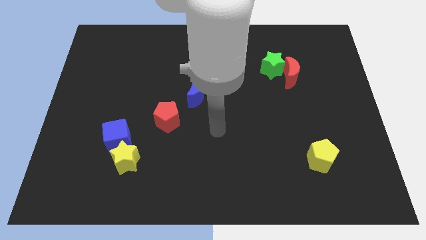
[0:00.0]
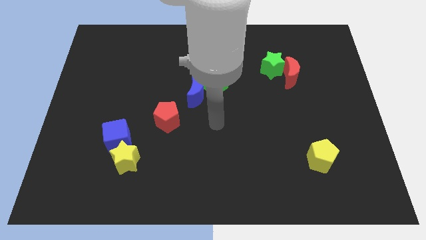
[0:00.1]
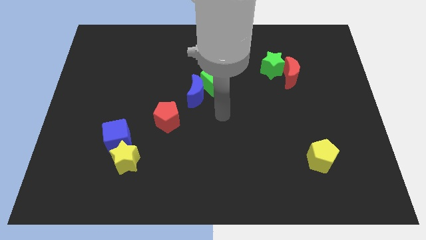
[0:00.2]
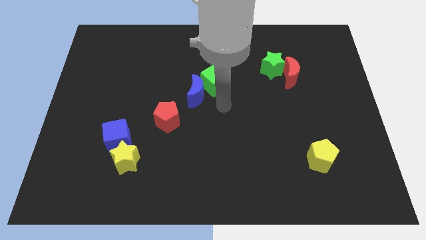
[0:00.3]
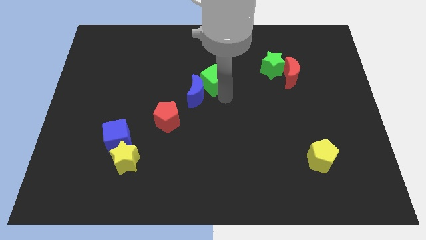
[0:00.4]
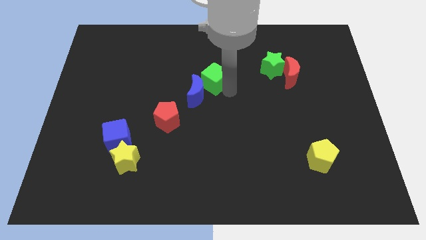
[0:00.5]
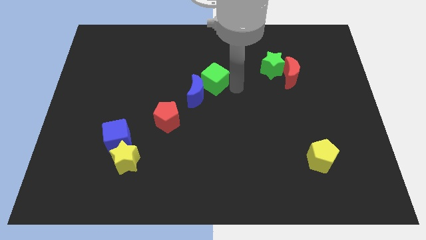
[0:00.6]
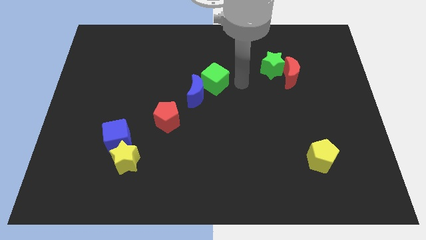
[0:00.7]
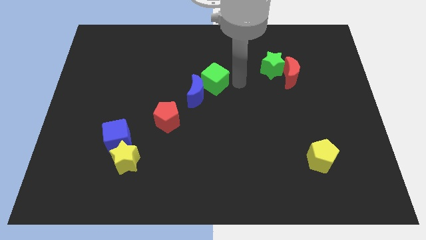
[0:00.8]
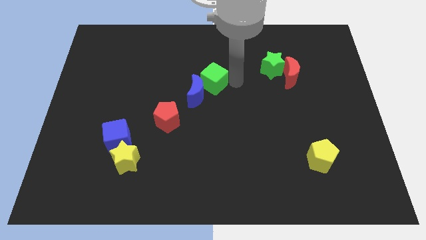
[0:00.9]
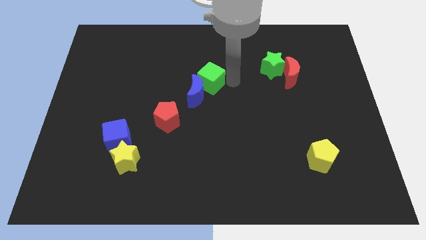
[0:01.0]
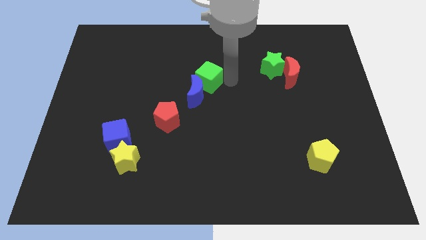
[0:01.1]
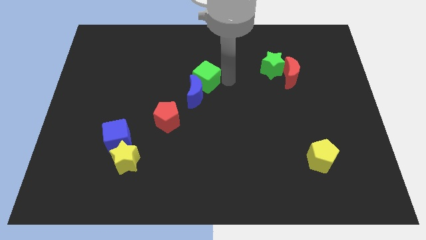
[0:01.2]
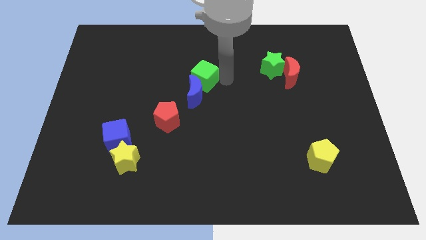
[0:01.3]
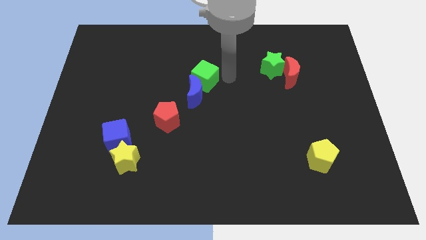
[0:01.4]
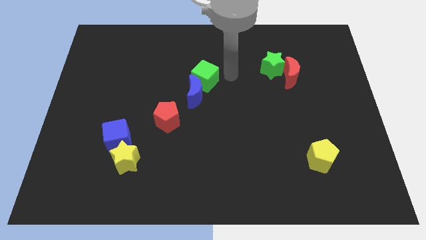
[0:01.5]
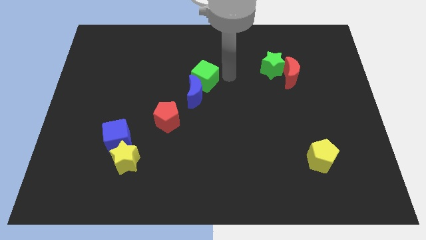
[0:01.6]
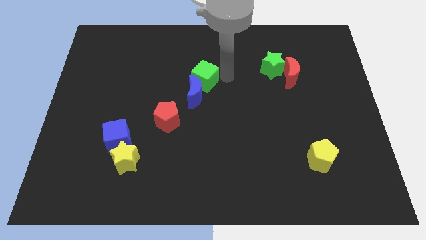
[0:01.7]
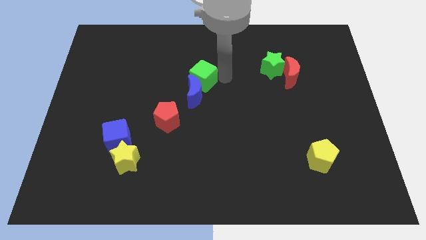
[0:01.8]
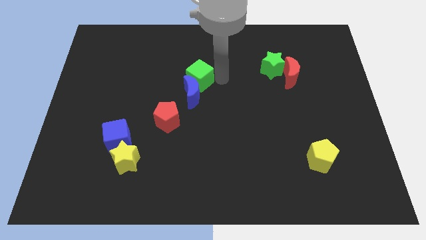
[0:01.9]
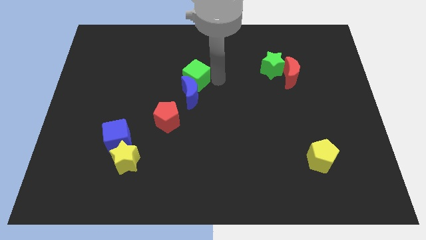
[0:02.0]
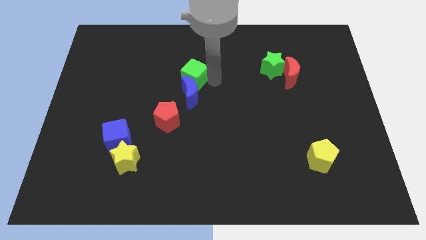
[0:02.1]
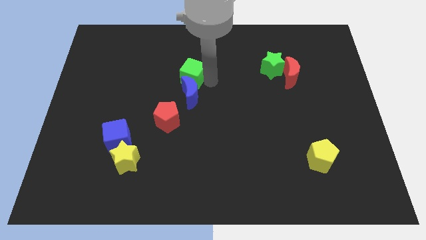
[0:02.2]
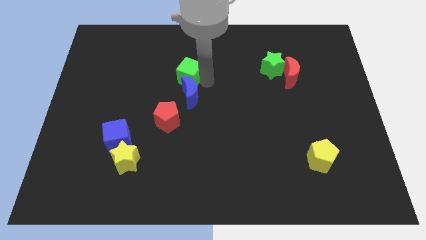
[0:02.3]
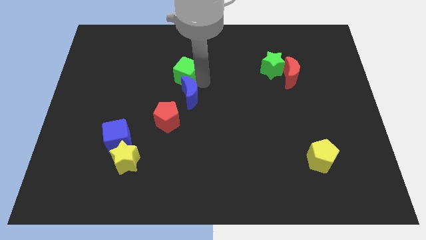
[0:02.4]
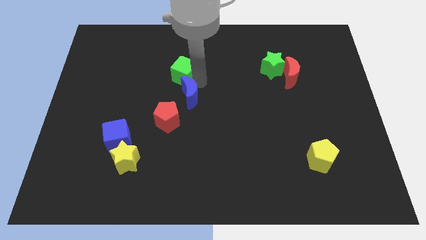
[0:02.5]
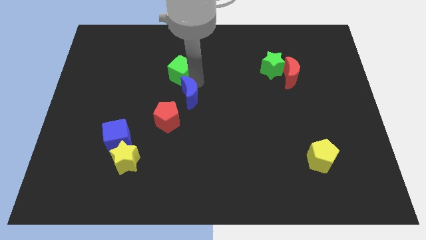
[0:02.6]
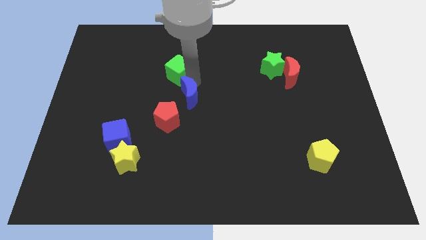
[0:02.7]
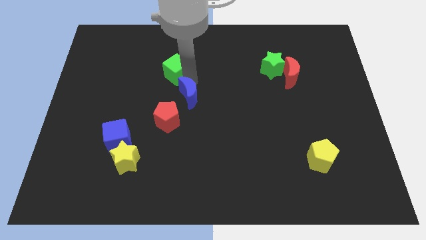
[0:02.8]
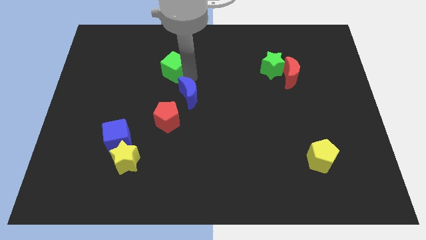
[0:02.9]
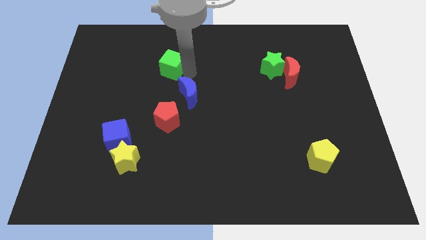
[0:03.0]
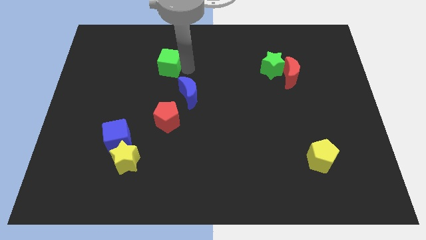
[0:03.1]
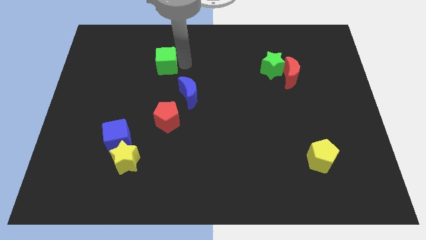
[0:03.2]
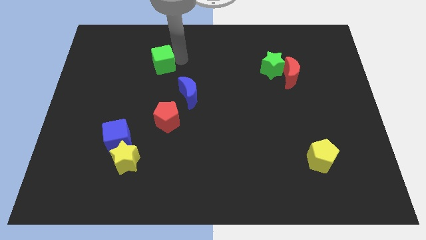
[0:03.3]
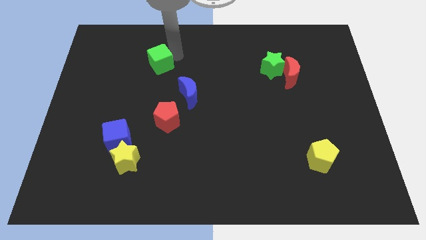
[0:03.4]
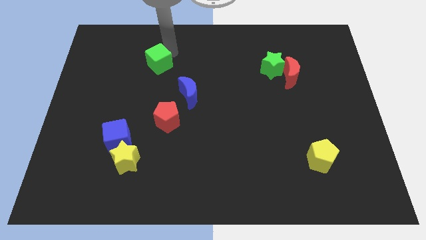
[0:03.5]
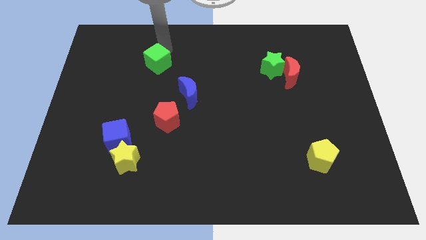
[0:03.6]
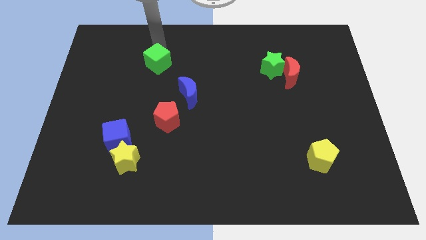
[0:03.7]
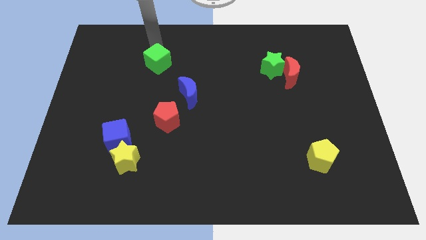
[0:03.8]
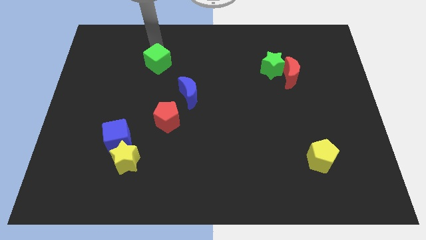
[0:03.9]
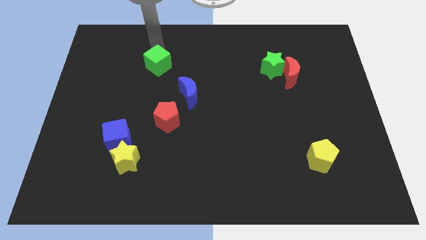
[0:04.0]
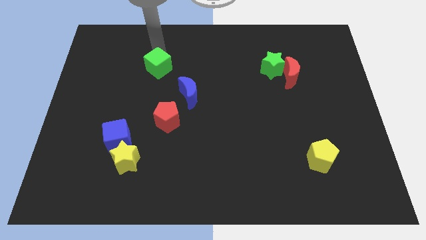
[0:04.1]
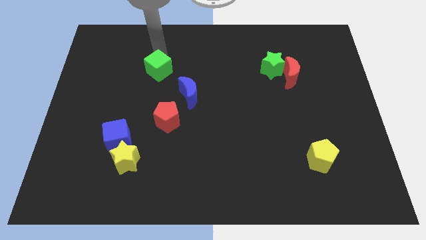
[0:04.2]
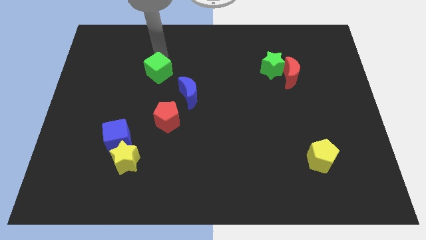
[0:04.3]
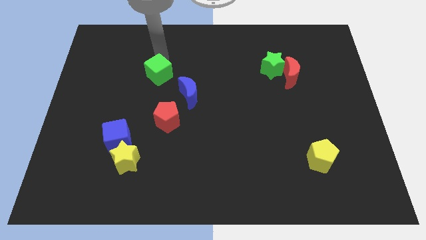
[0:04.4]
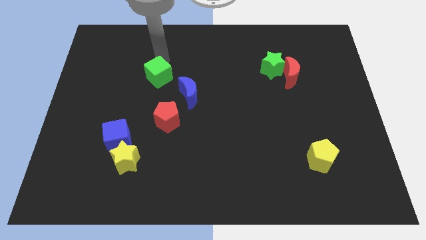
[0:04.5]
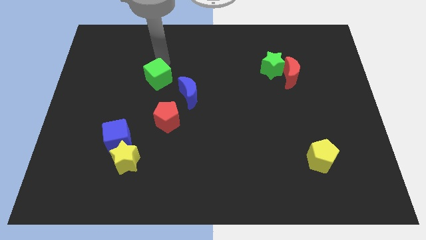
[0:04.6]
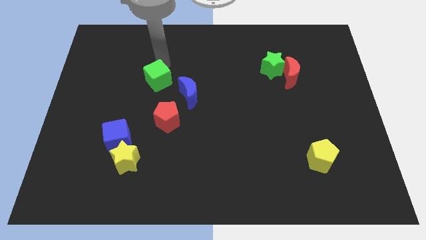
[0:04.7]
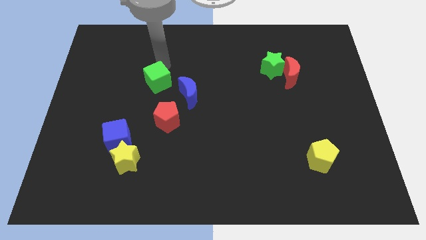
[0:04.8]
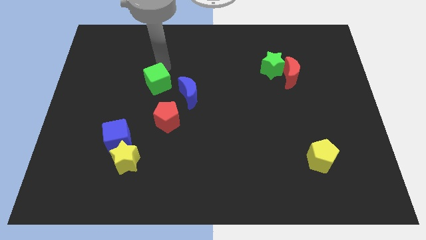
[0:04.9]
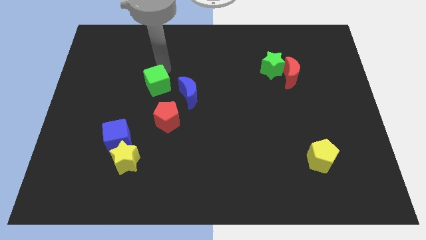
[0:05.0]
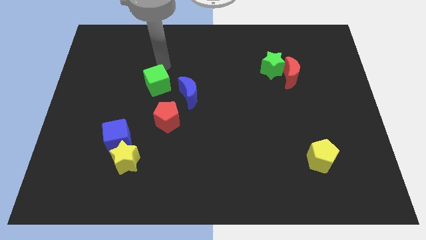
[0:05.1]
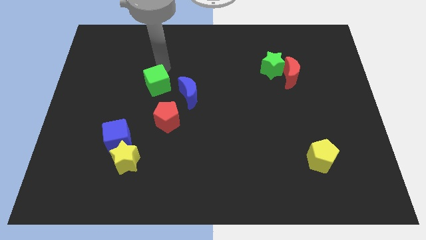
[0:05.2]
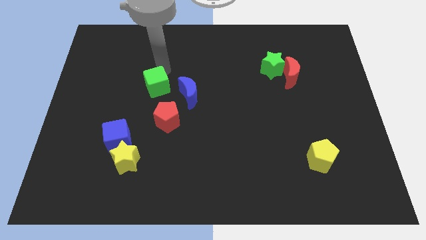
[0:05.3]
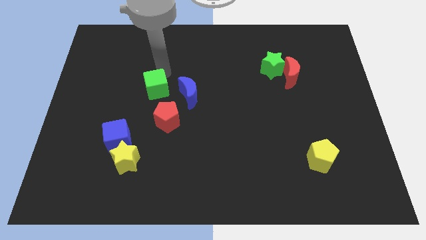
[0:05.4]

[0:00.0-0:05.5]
slightly push the green cube diagonally downwards and to the left

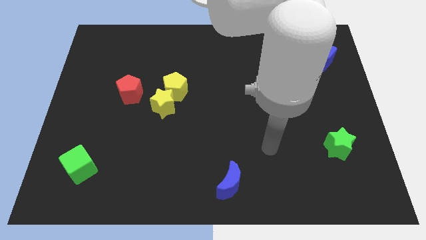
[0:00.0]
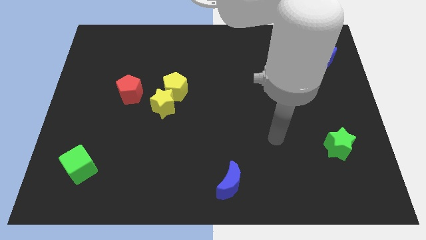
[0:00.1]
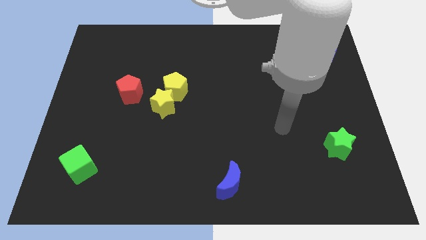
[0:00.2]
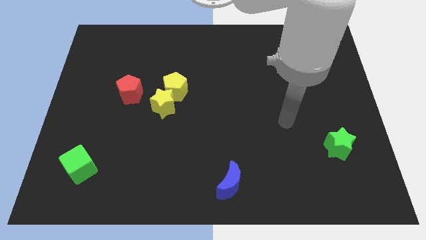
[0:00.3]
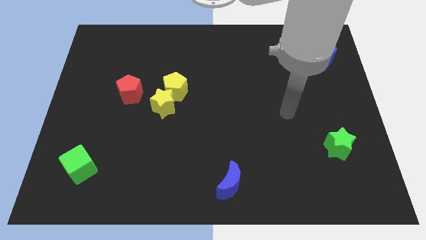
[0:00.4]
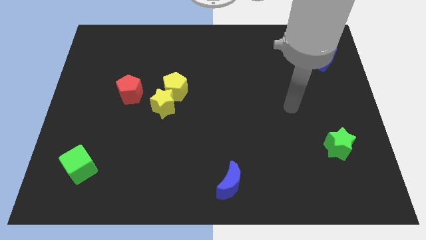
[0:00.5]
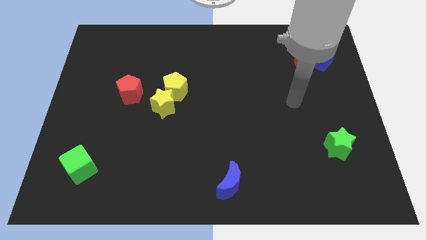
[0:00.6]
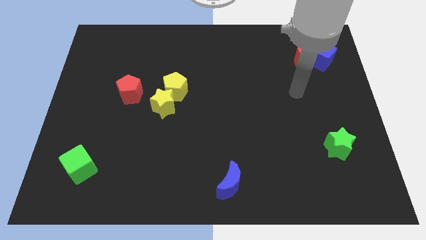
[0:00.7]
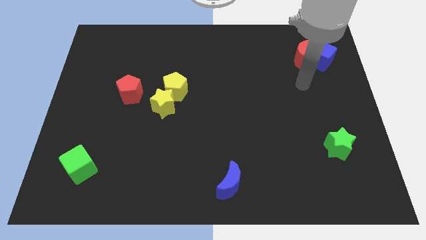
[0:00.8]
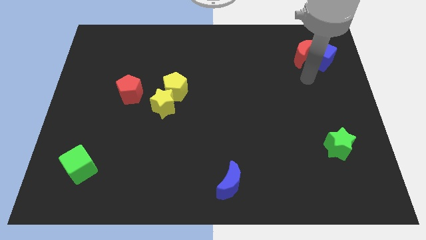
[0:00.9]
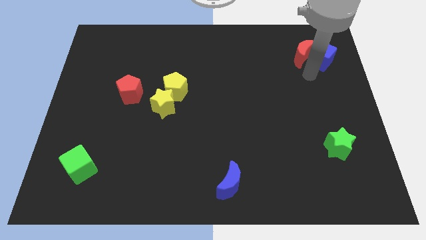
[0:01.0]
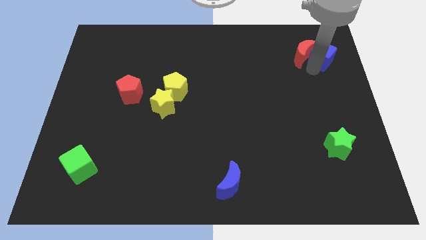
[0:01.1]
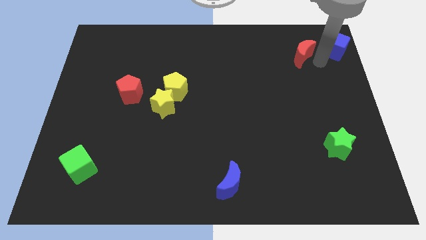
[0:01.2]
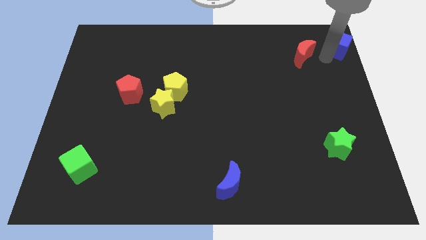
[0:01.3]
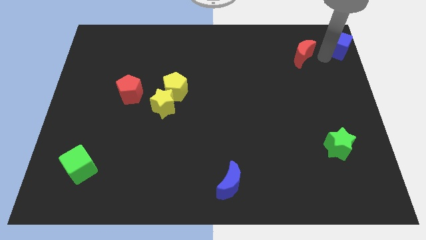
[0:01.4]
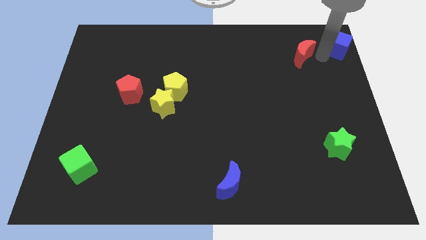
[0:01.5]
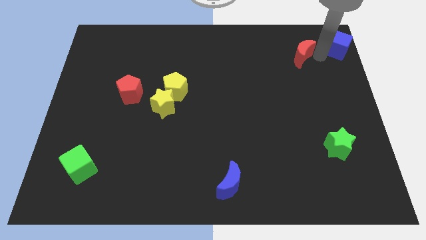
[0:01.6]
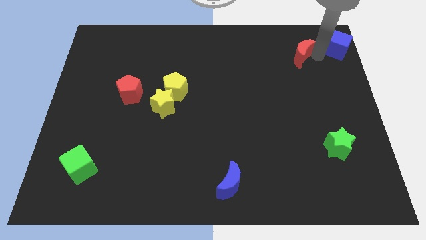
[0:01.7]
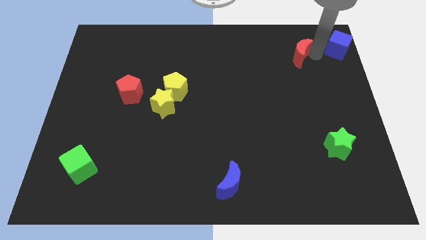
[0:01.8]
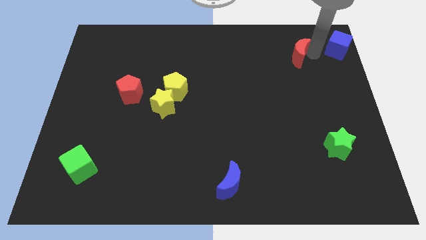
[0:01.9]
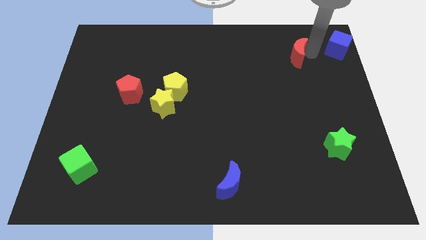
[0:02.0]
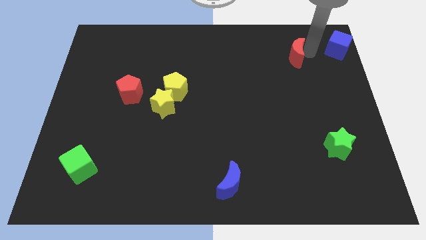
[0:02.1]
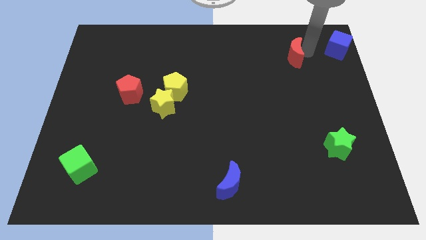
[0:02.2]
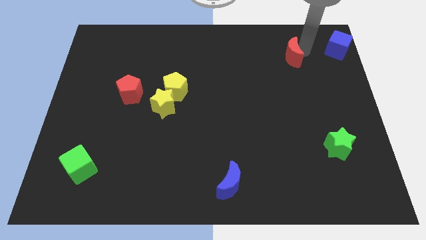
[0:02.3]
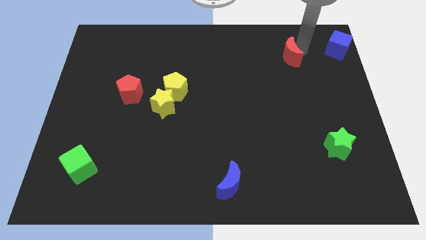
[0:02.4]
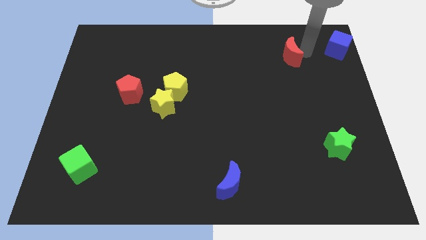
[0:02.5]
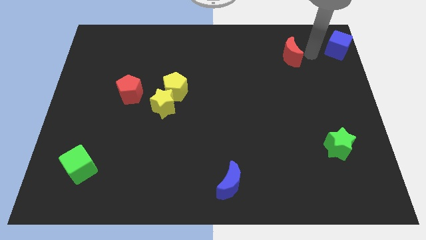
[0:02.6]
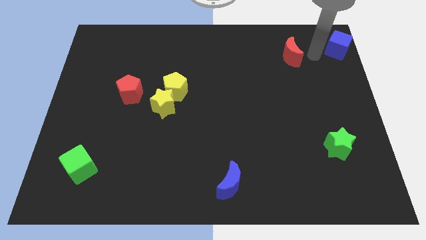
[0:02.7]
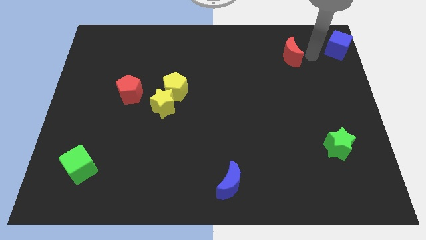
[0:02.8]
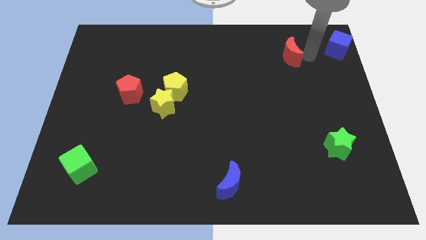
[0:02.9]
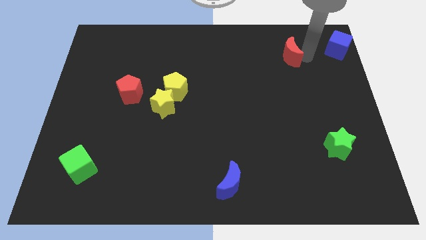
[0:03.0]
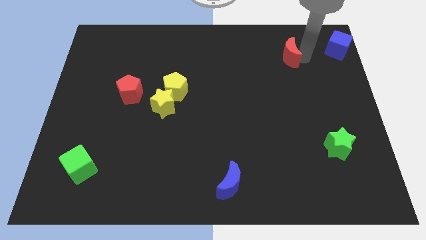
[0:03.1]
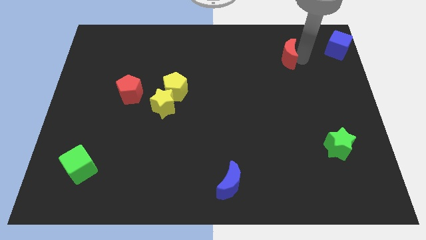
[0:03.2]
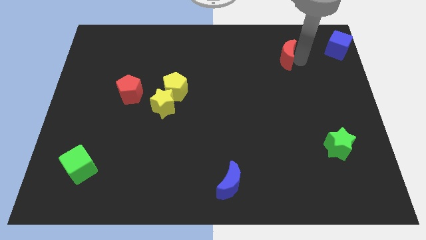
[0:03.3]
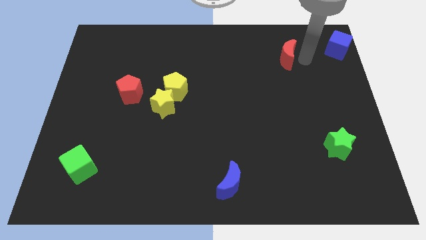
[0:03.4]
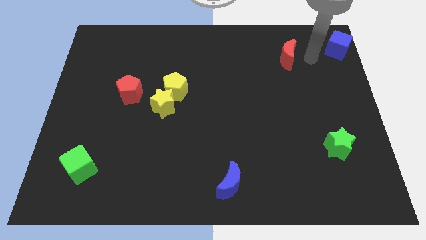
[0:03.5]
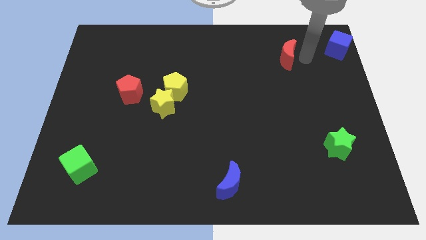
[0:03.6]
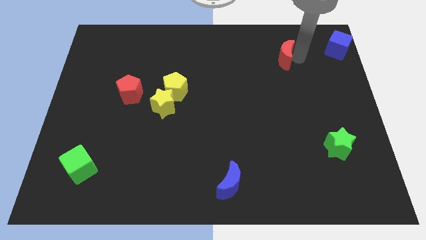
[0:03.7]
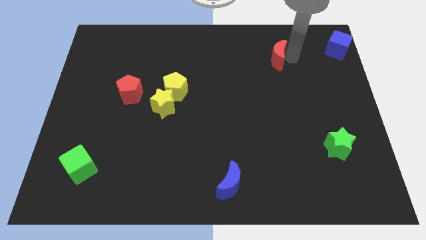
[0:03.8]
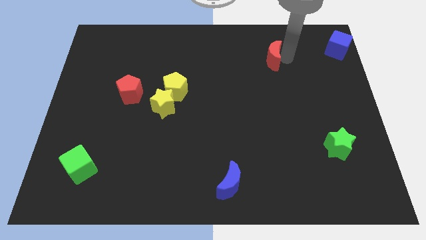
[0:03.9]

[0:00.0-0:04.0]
push the red moon a bit left
